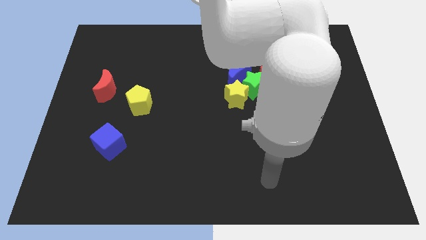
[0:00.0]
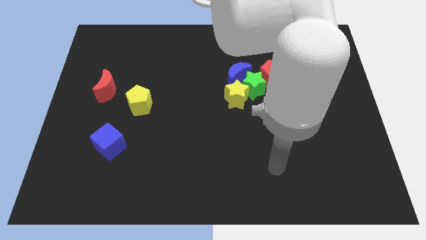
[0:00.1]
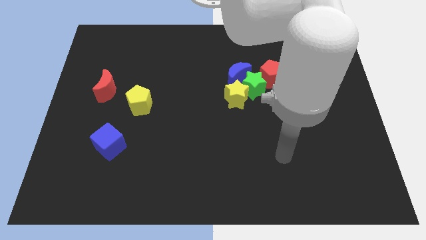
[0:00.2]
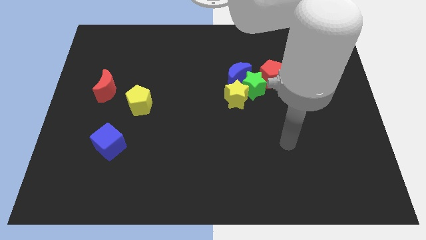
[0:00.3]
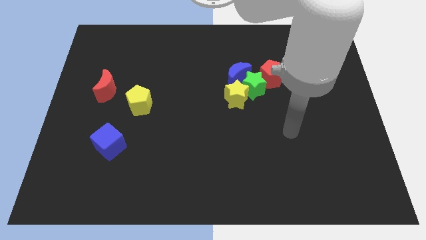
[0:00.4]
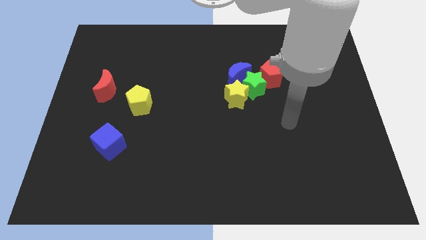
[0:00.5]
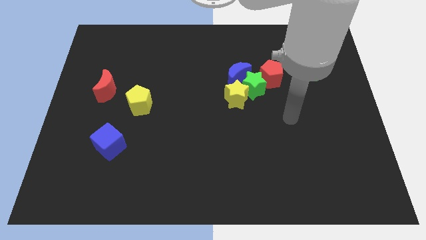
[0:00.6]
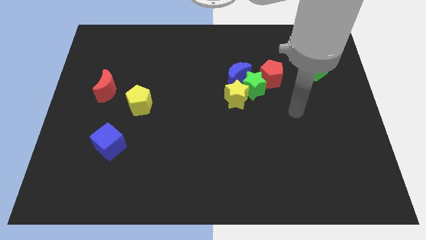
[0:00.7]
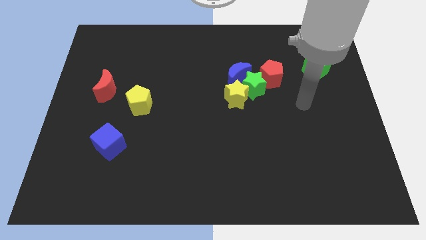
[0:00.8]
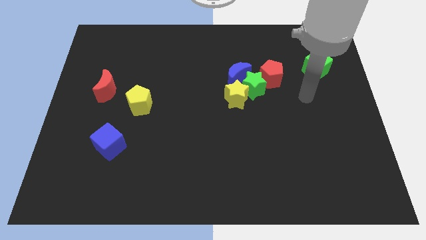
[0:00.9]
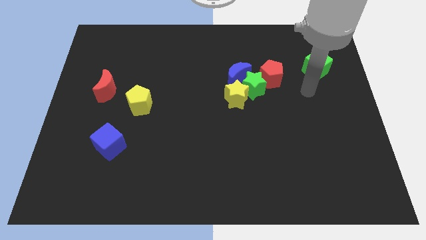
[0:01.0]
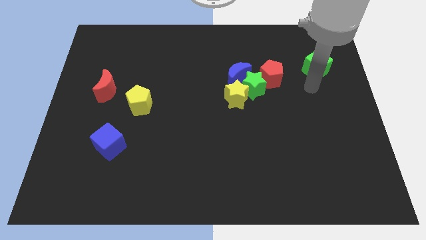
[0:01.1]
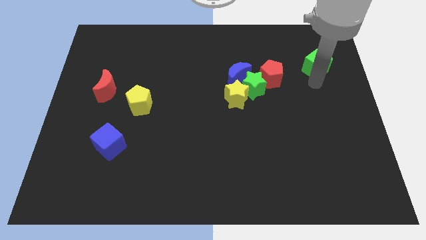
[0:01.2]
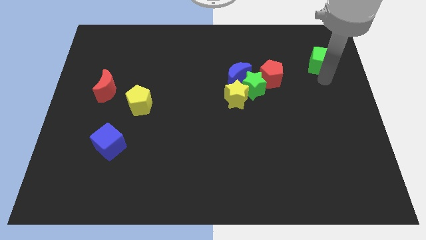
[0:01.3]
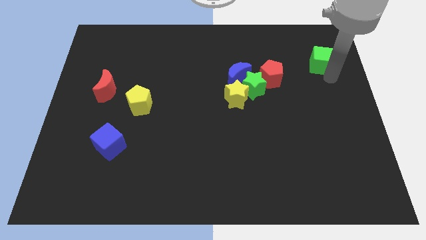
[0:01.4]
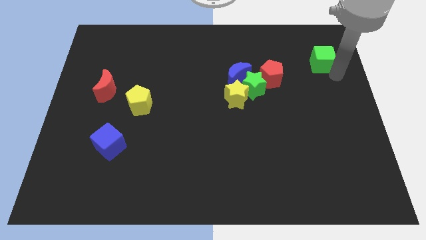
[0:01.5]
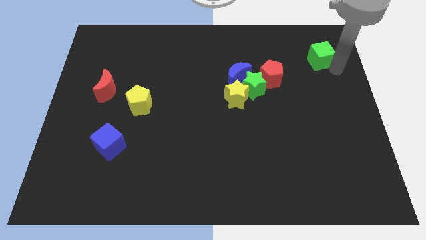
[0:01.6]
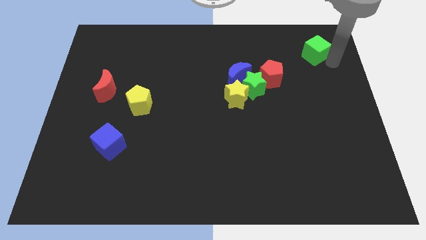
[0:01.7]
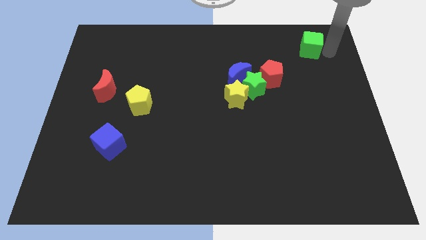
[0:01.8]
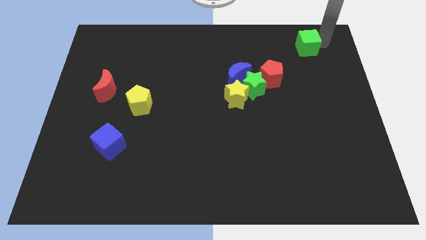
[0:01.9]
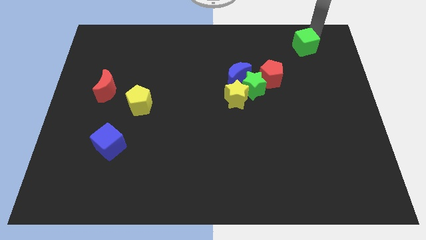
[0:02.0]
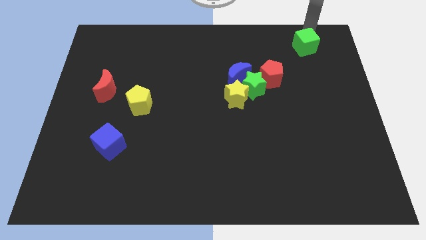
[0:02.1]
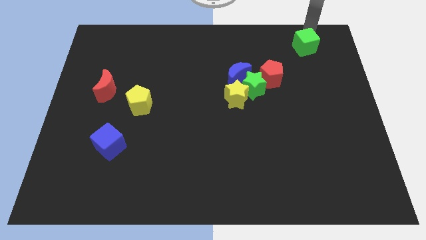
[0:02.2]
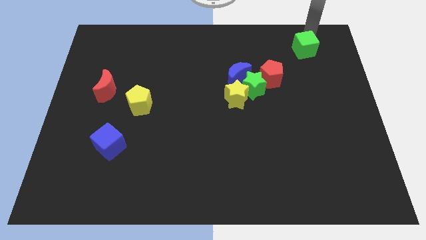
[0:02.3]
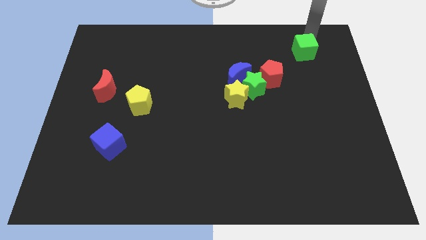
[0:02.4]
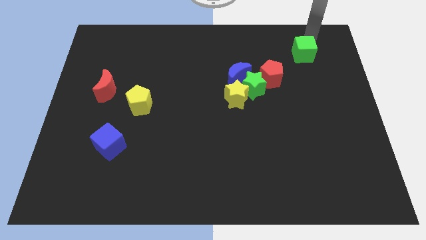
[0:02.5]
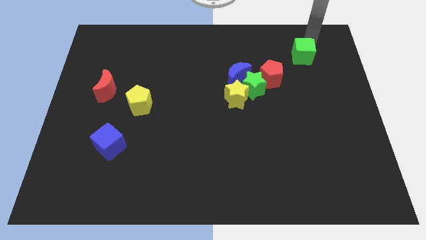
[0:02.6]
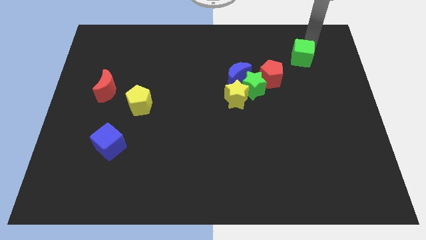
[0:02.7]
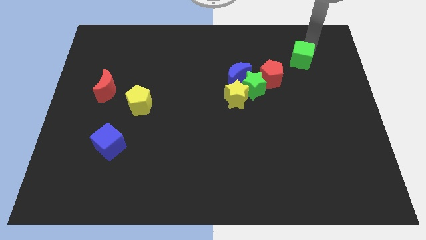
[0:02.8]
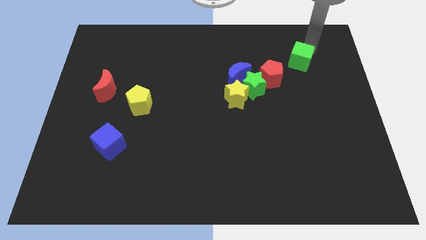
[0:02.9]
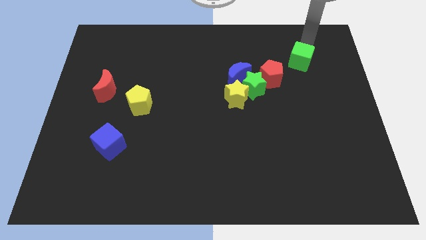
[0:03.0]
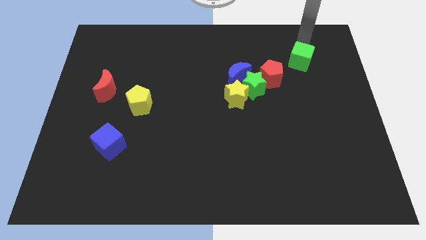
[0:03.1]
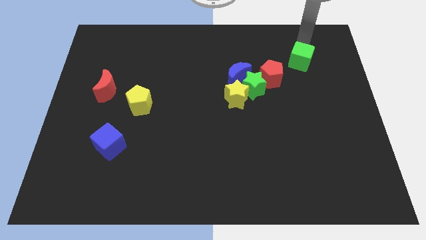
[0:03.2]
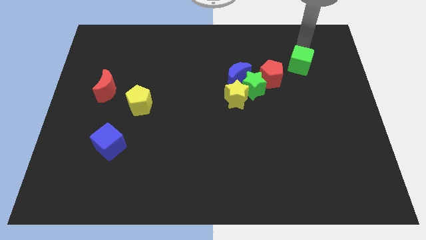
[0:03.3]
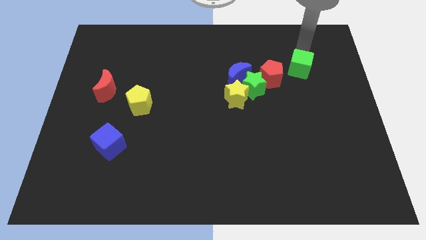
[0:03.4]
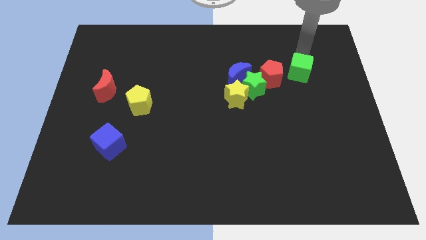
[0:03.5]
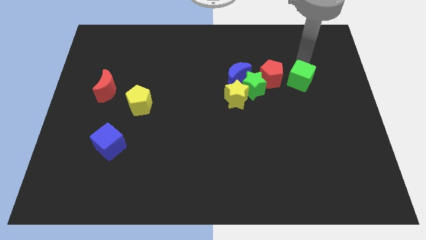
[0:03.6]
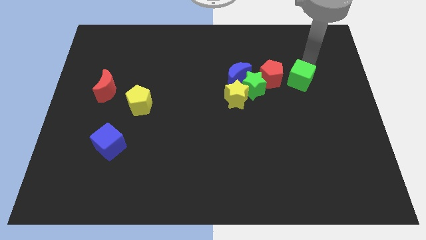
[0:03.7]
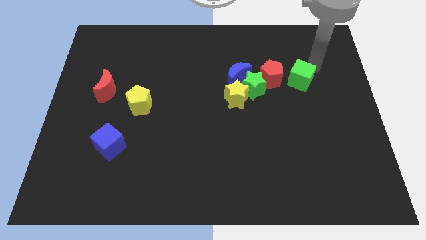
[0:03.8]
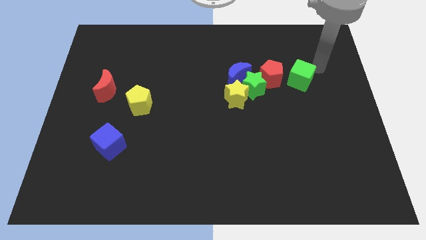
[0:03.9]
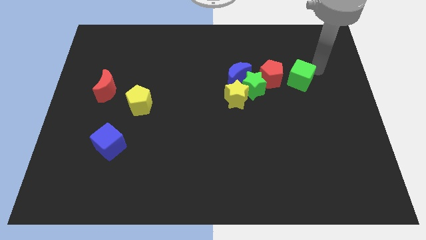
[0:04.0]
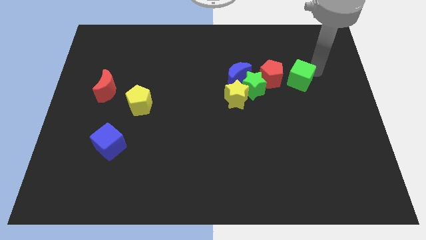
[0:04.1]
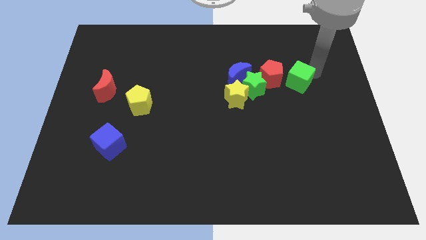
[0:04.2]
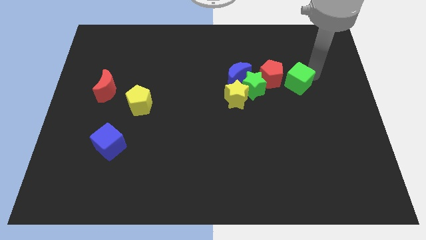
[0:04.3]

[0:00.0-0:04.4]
slightly move the green cube diagonally downwards and to the left

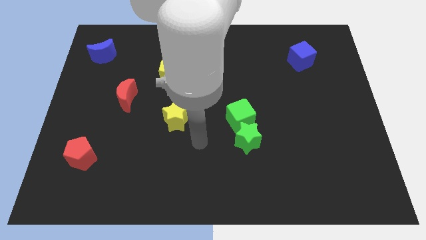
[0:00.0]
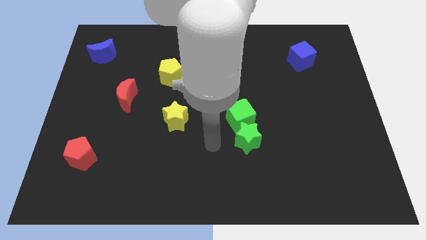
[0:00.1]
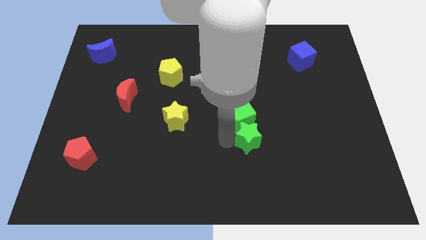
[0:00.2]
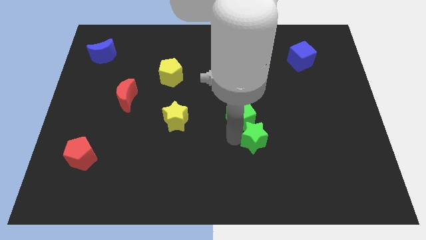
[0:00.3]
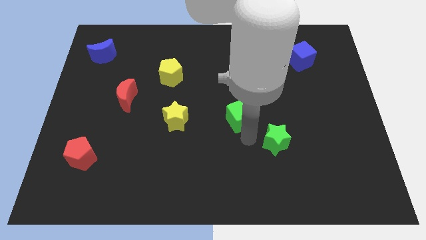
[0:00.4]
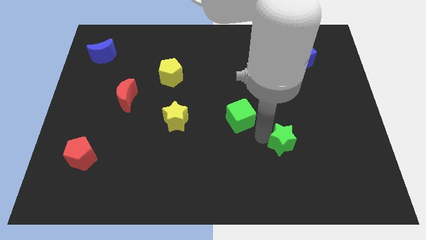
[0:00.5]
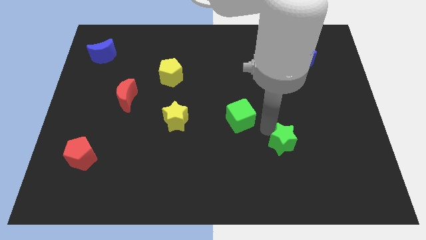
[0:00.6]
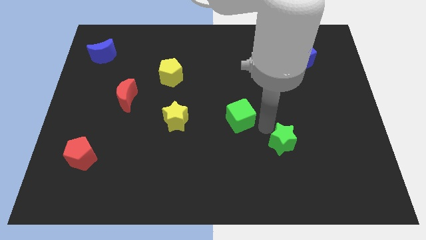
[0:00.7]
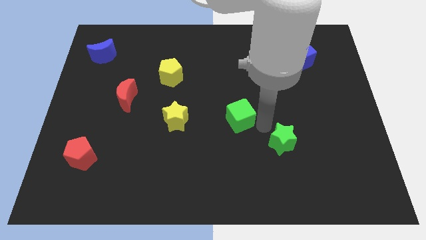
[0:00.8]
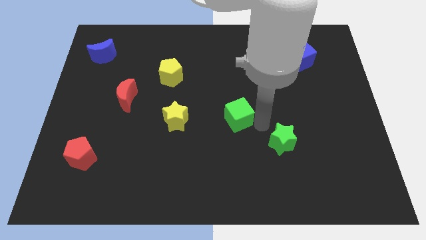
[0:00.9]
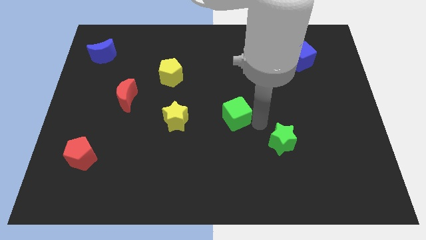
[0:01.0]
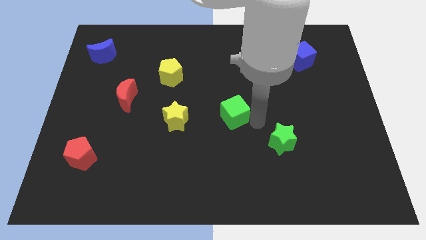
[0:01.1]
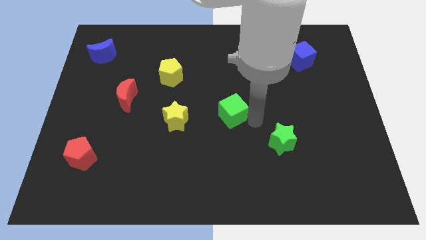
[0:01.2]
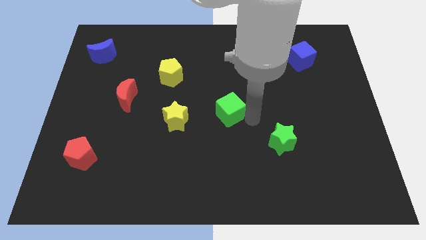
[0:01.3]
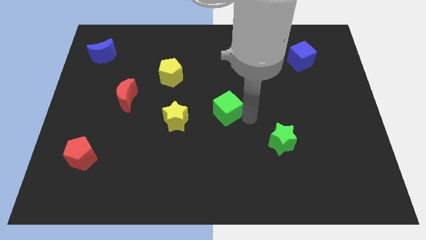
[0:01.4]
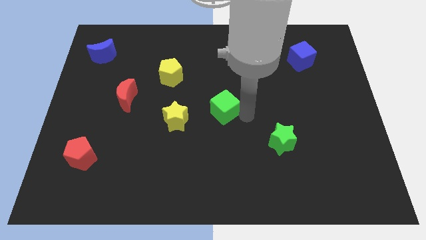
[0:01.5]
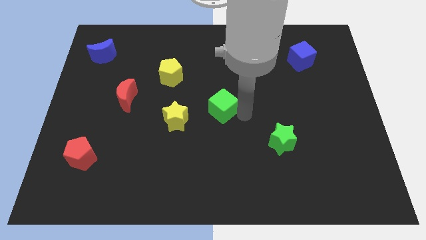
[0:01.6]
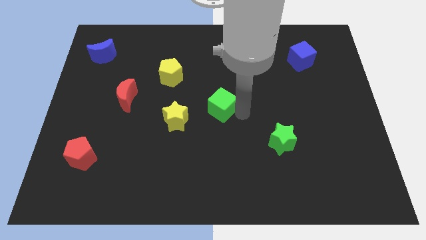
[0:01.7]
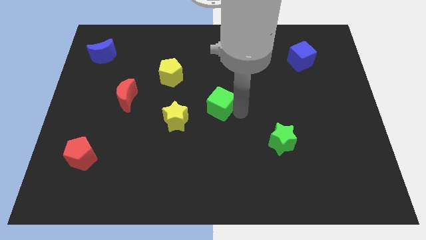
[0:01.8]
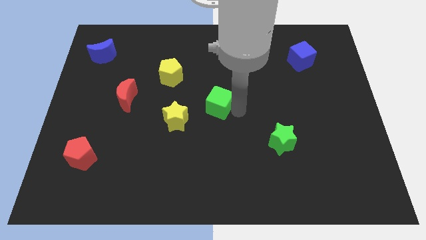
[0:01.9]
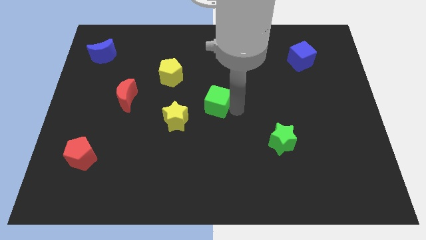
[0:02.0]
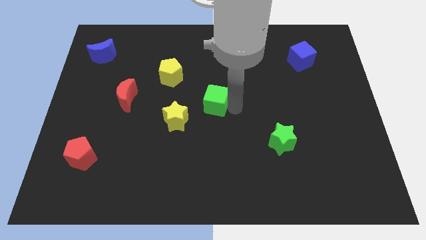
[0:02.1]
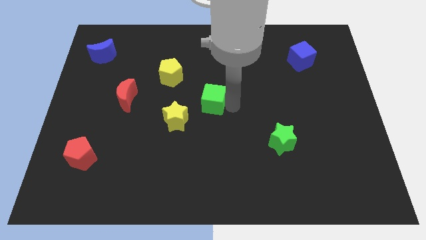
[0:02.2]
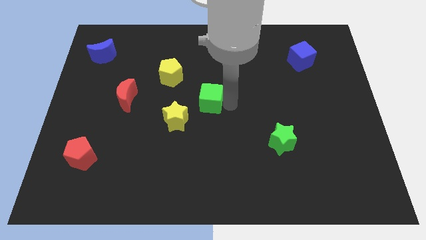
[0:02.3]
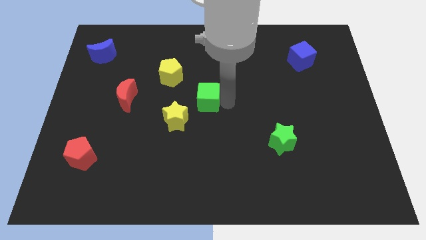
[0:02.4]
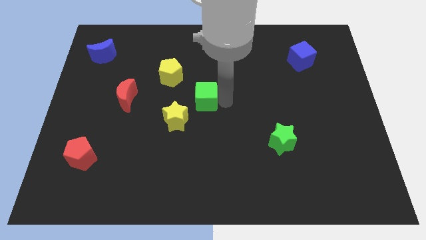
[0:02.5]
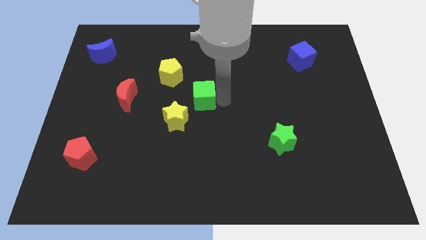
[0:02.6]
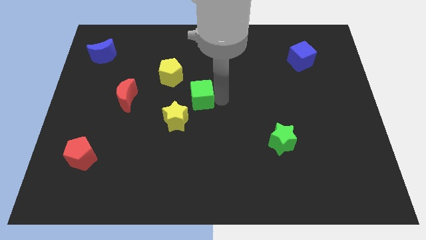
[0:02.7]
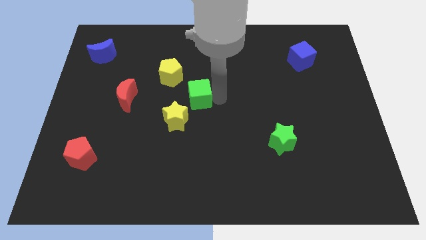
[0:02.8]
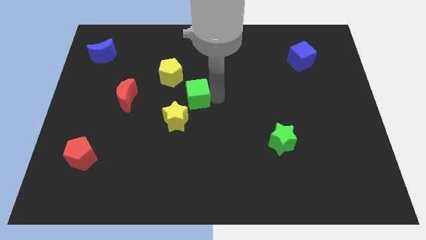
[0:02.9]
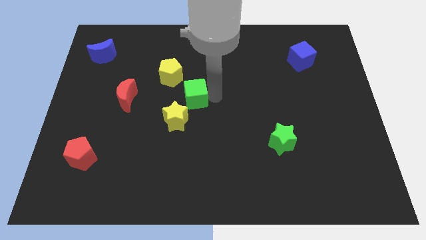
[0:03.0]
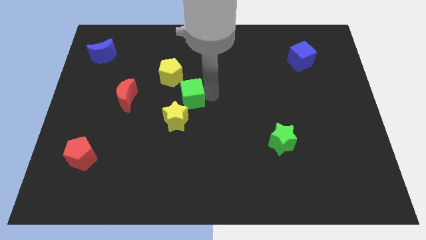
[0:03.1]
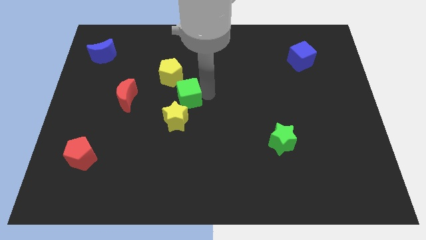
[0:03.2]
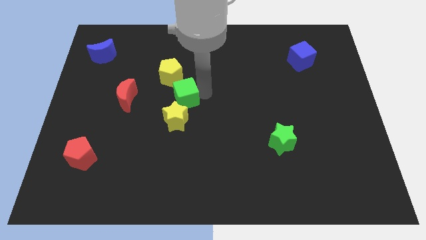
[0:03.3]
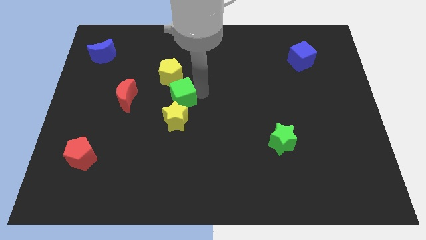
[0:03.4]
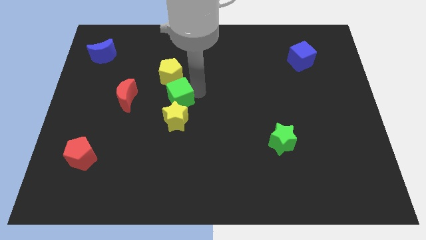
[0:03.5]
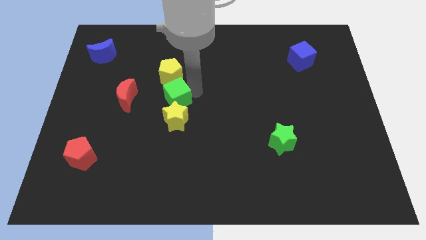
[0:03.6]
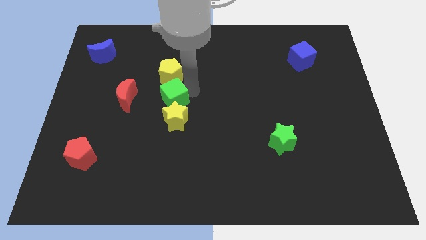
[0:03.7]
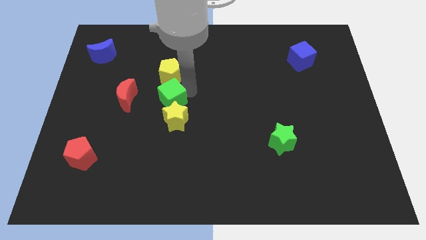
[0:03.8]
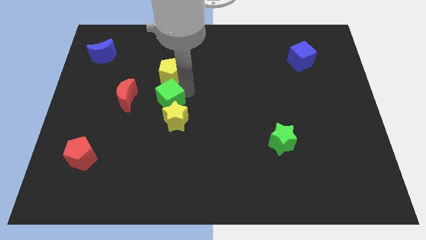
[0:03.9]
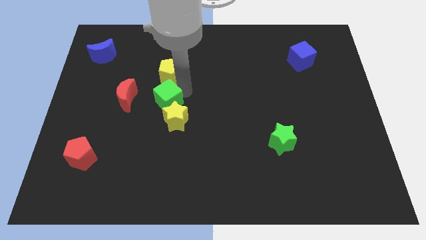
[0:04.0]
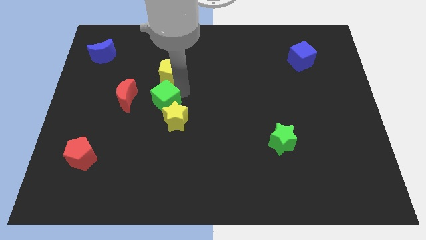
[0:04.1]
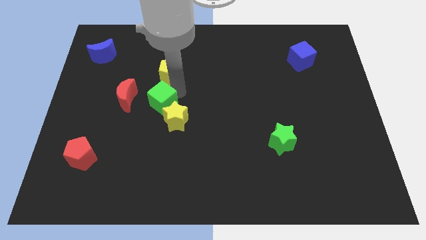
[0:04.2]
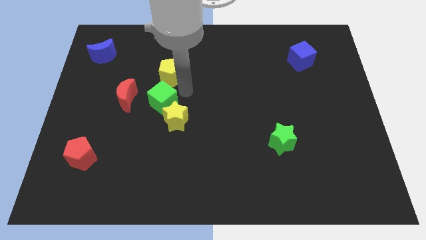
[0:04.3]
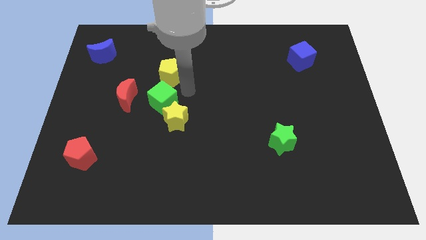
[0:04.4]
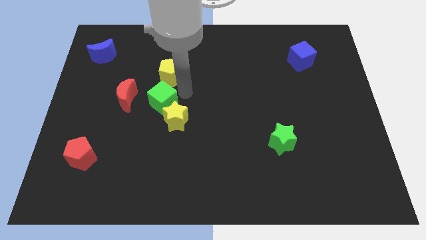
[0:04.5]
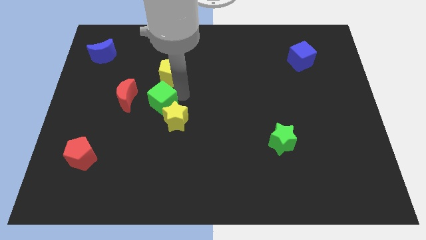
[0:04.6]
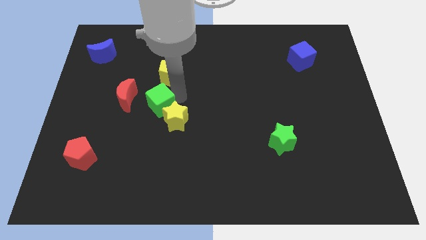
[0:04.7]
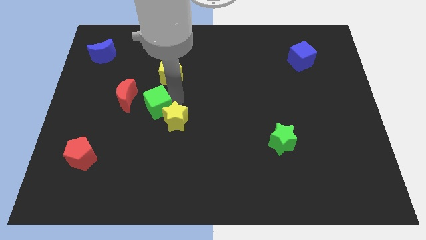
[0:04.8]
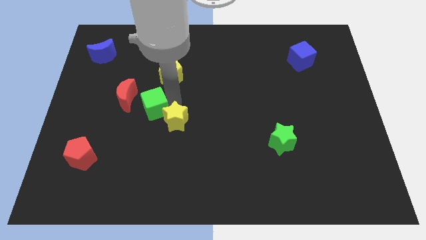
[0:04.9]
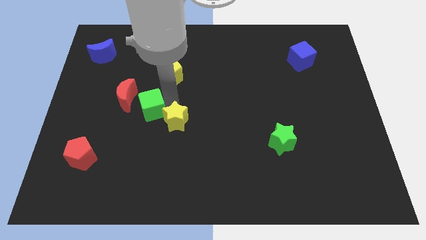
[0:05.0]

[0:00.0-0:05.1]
move the green cube to the left
